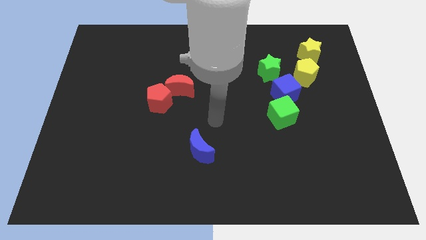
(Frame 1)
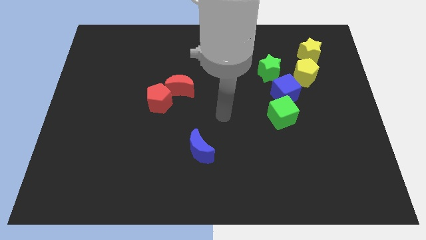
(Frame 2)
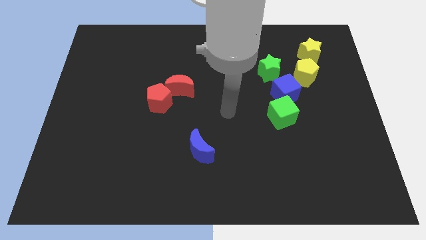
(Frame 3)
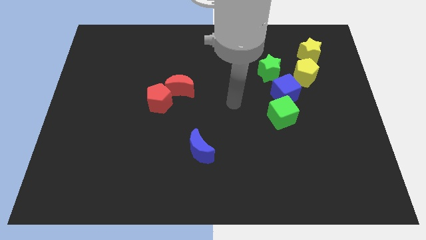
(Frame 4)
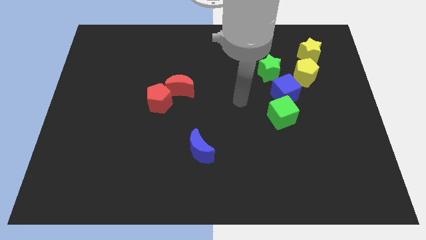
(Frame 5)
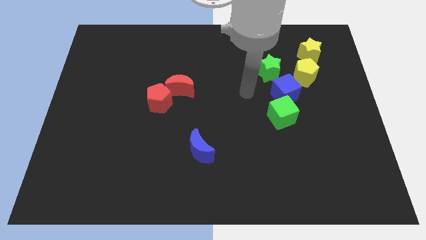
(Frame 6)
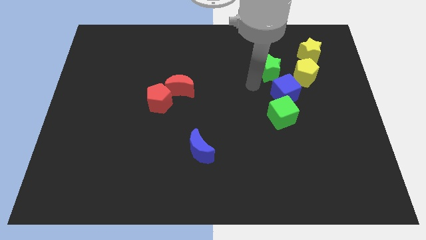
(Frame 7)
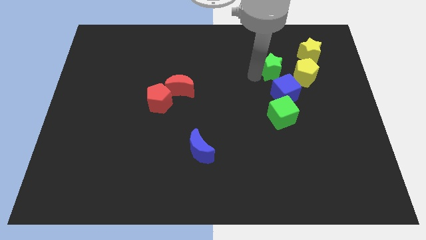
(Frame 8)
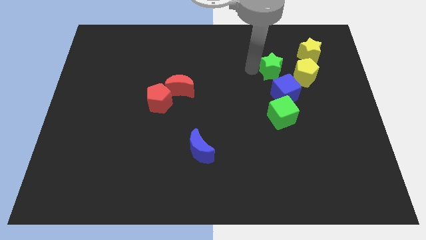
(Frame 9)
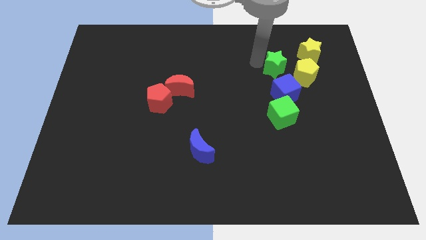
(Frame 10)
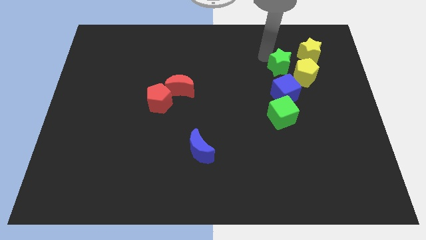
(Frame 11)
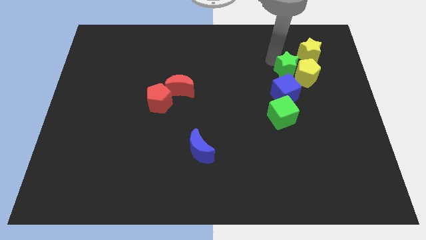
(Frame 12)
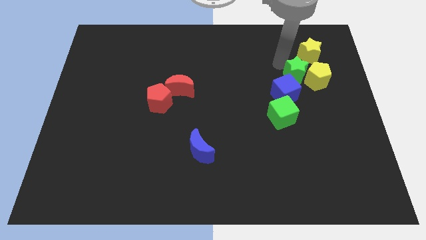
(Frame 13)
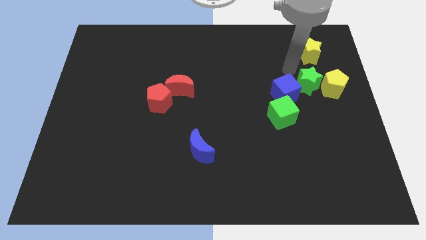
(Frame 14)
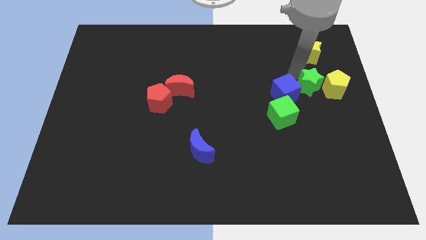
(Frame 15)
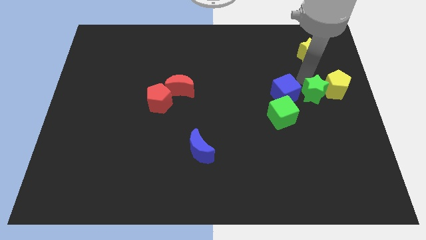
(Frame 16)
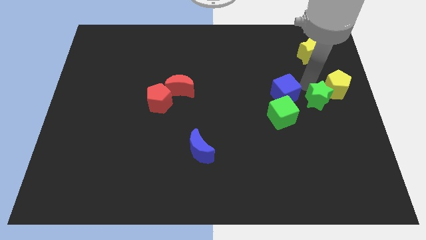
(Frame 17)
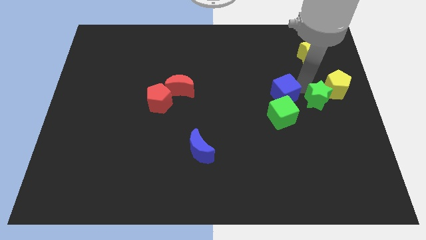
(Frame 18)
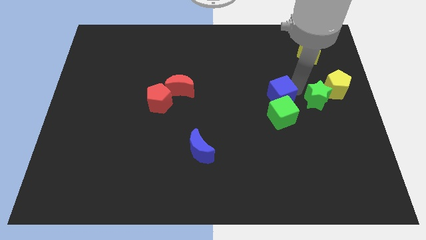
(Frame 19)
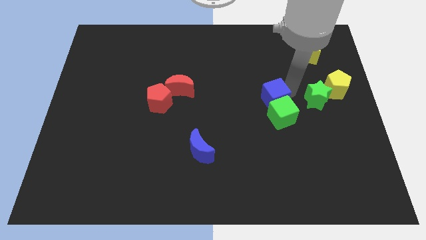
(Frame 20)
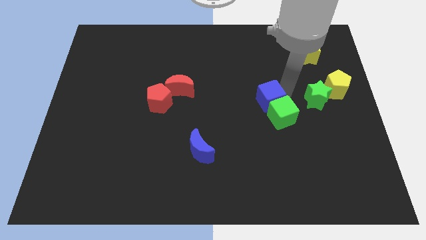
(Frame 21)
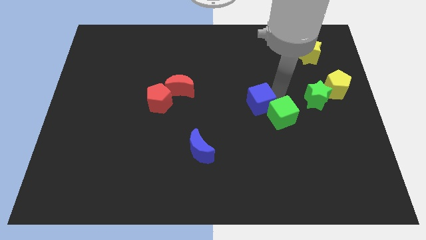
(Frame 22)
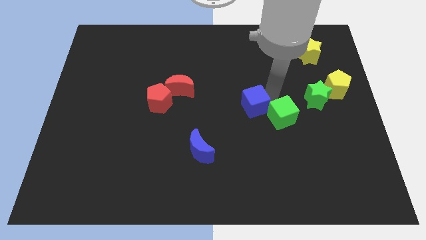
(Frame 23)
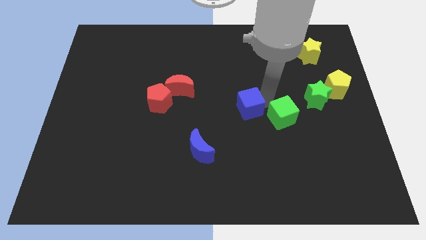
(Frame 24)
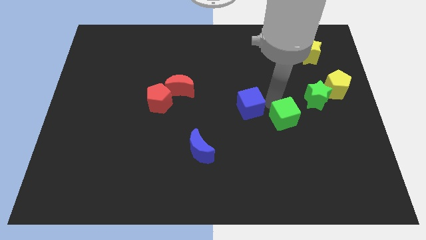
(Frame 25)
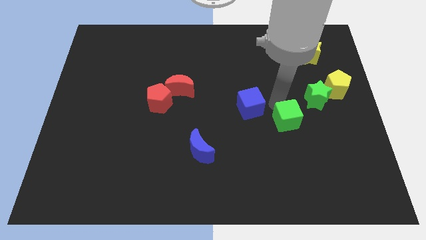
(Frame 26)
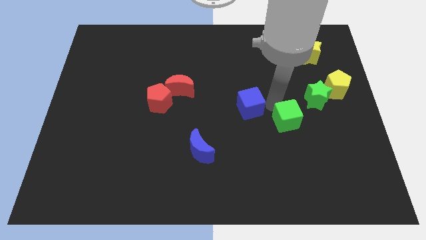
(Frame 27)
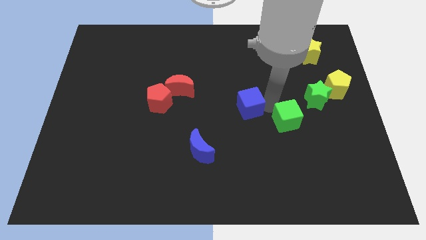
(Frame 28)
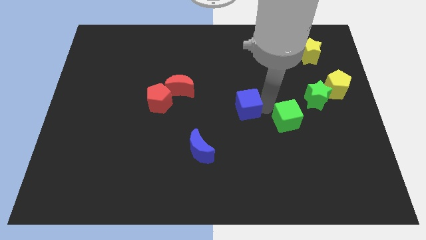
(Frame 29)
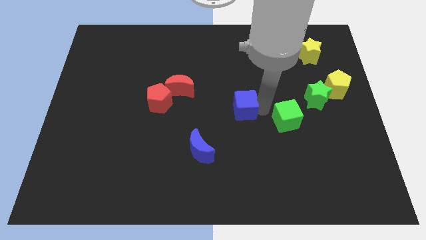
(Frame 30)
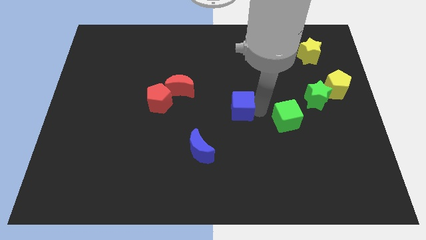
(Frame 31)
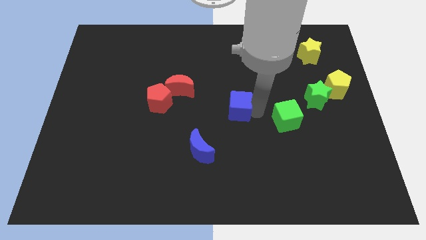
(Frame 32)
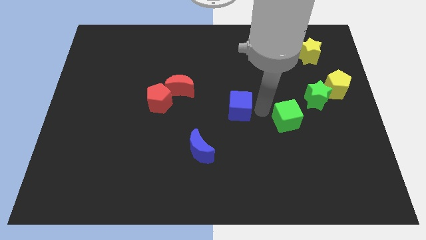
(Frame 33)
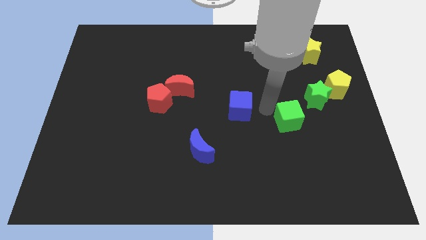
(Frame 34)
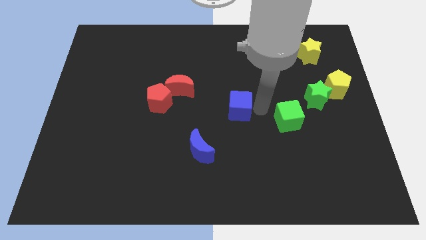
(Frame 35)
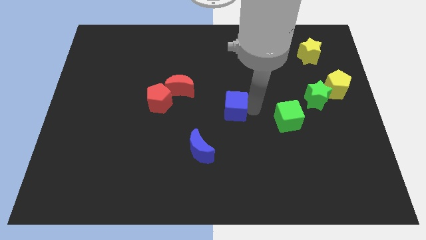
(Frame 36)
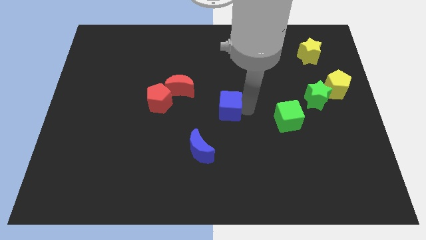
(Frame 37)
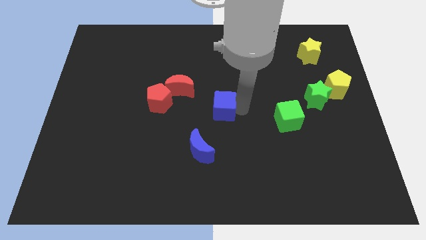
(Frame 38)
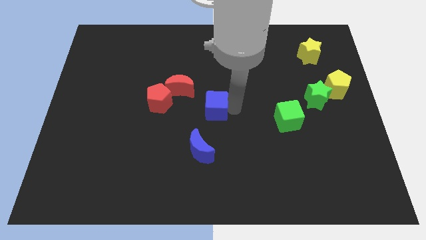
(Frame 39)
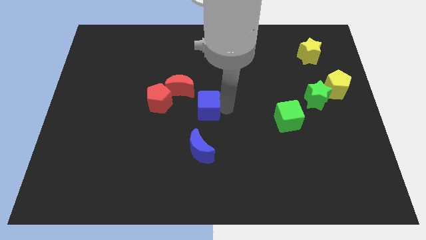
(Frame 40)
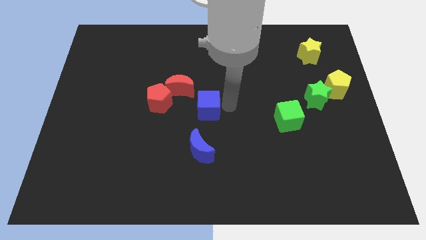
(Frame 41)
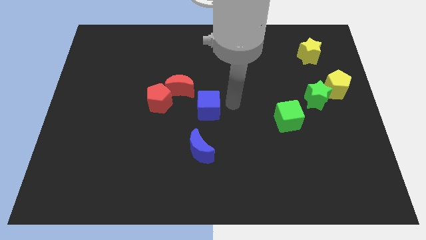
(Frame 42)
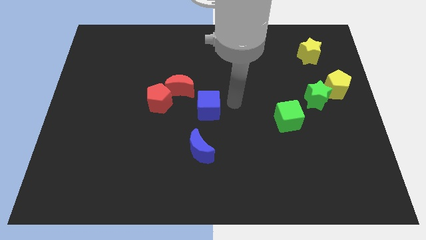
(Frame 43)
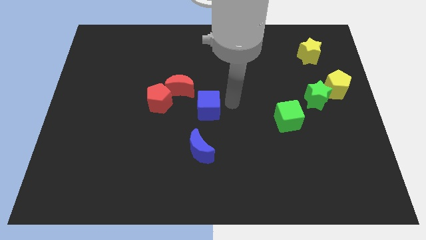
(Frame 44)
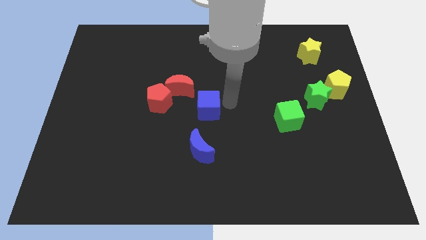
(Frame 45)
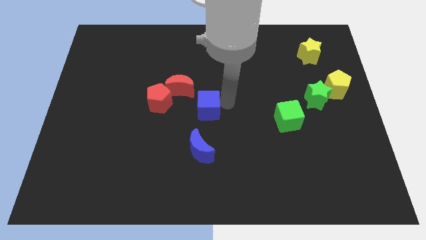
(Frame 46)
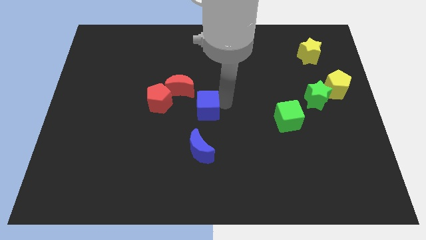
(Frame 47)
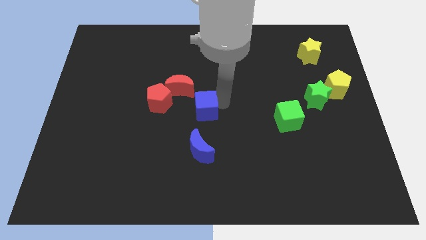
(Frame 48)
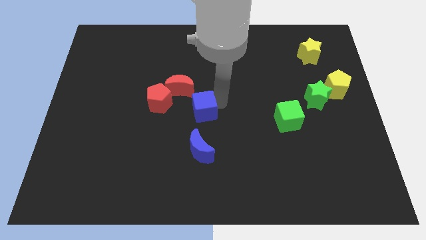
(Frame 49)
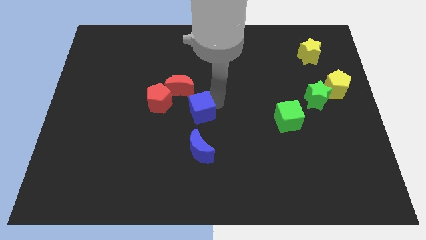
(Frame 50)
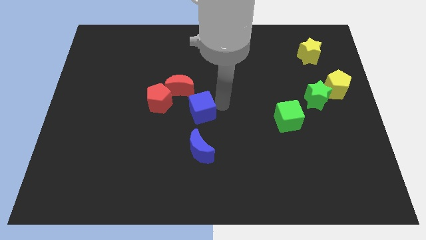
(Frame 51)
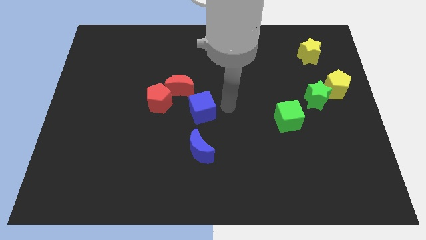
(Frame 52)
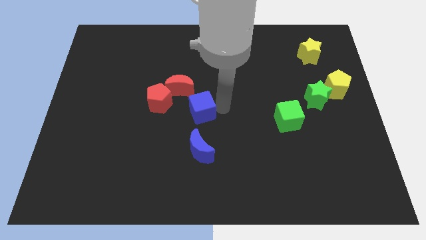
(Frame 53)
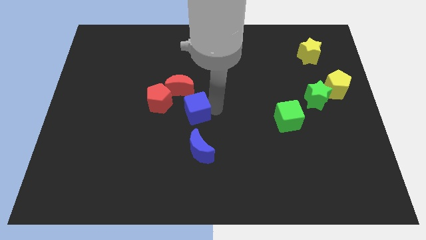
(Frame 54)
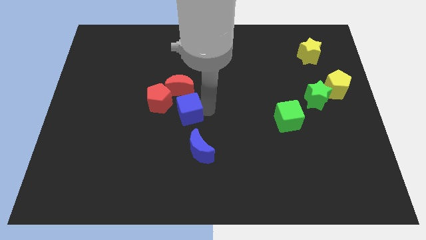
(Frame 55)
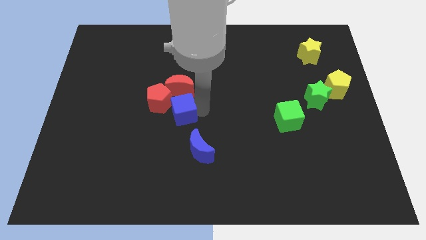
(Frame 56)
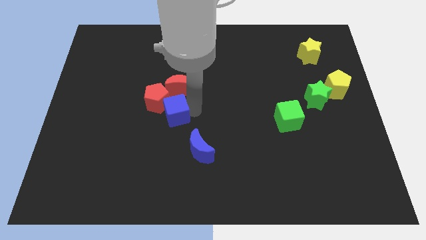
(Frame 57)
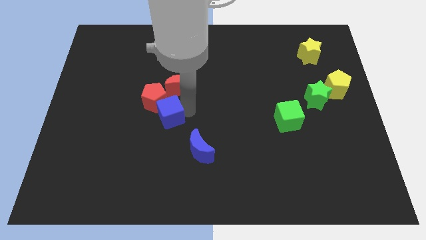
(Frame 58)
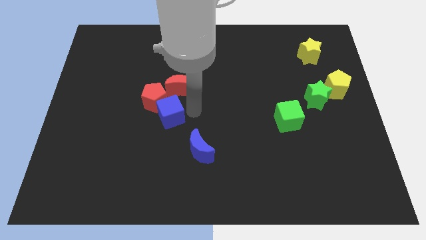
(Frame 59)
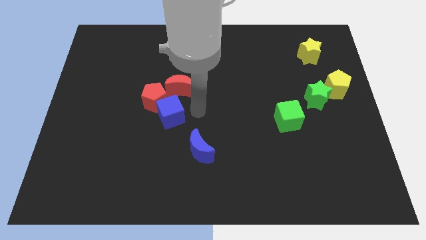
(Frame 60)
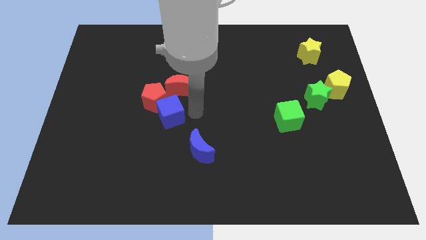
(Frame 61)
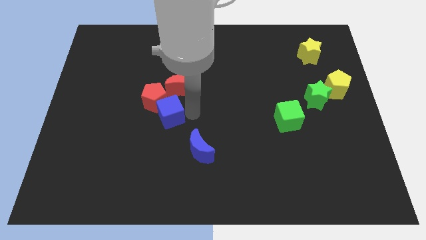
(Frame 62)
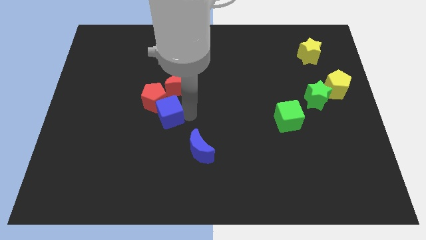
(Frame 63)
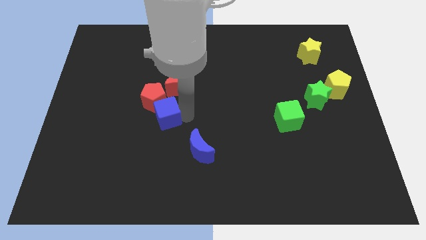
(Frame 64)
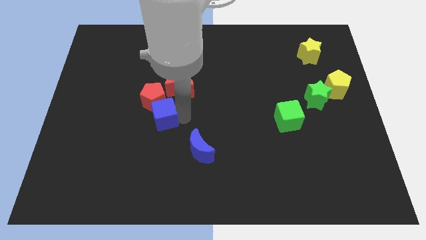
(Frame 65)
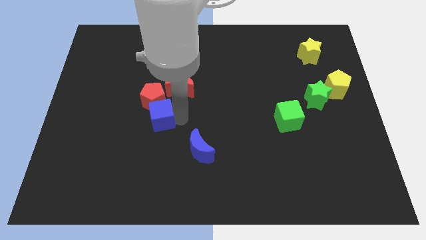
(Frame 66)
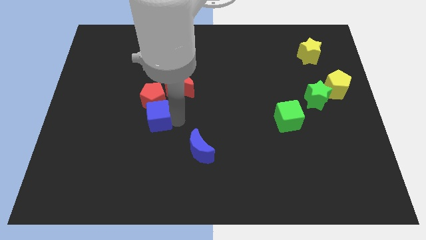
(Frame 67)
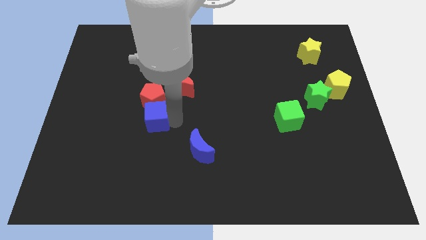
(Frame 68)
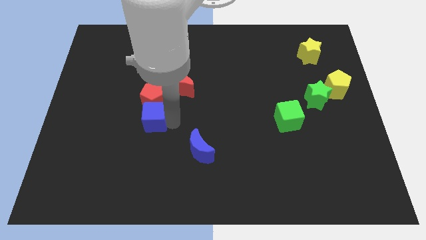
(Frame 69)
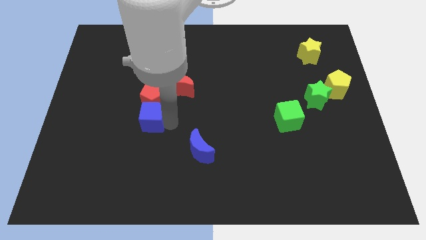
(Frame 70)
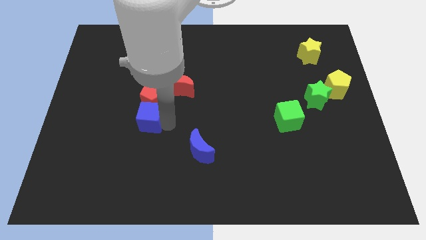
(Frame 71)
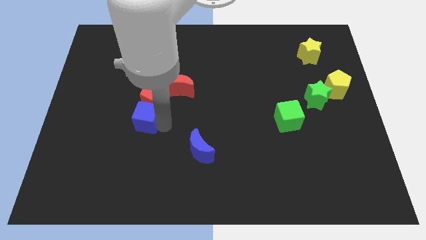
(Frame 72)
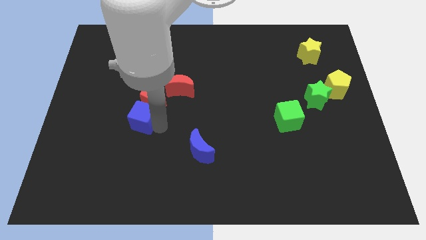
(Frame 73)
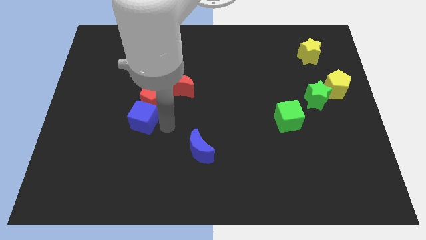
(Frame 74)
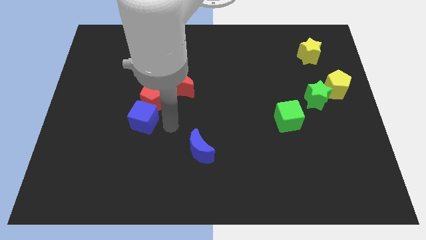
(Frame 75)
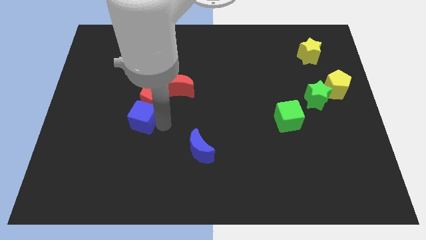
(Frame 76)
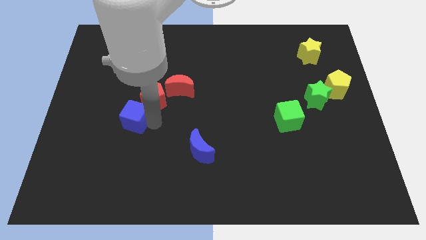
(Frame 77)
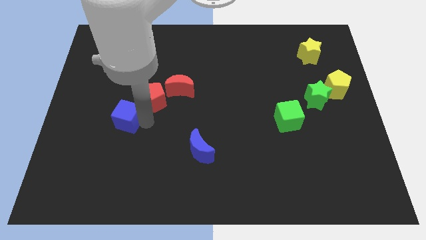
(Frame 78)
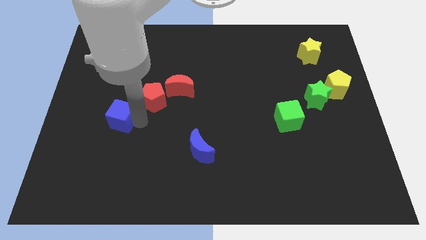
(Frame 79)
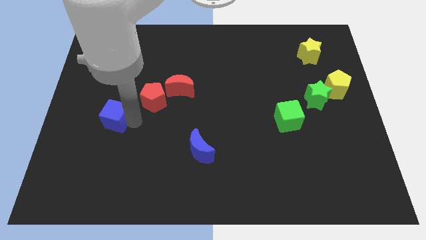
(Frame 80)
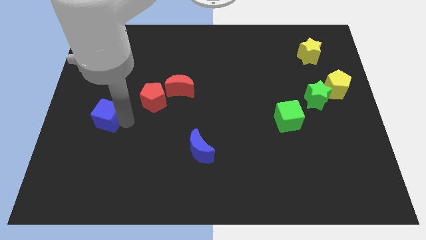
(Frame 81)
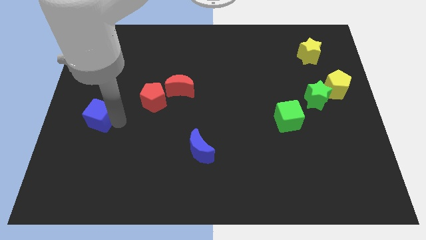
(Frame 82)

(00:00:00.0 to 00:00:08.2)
put the blue cube to the left side of the board
